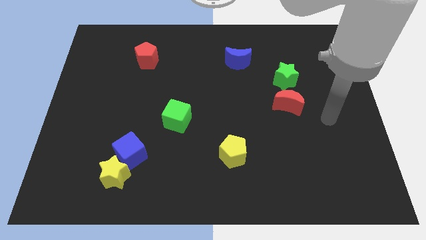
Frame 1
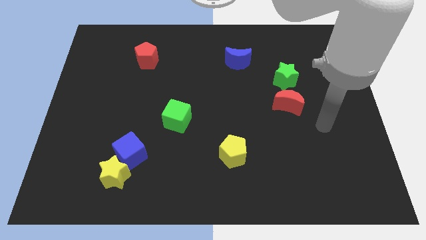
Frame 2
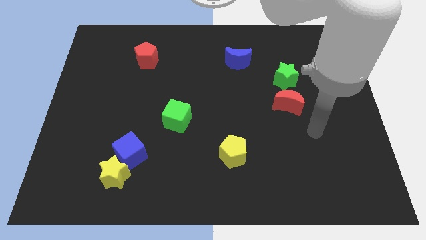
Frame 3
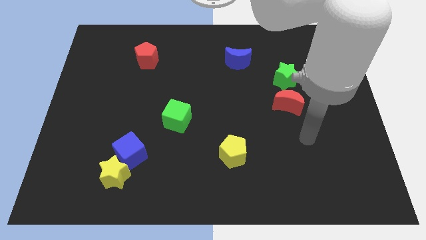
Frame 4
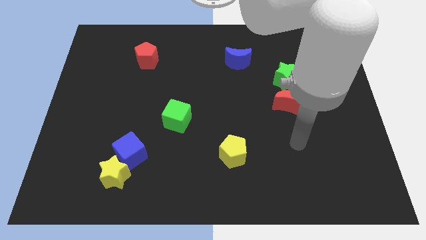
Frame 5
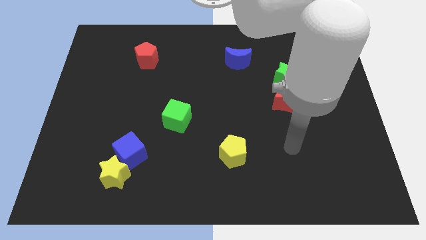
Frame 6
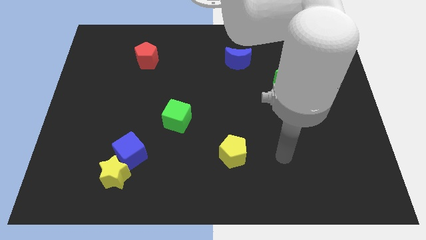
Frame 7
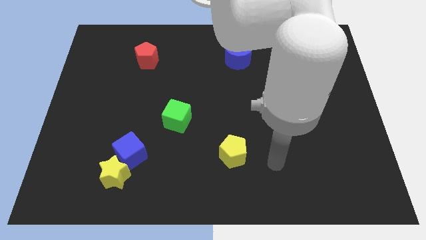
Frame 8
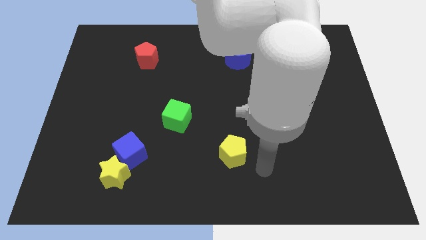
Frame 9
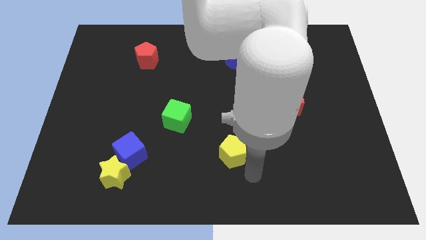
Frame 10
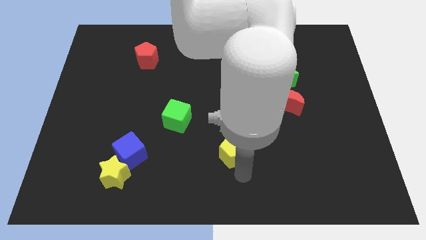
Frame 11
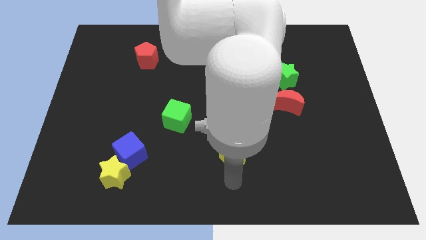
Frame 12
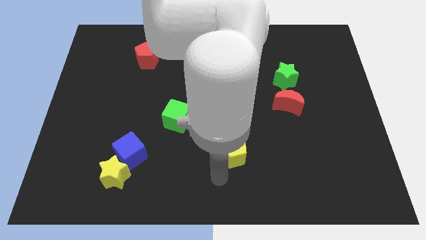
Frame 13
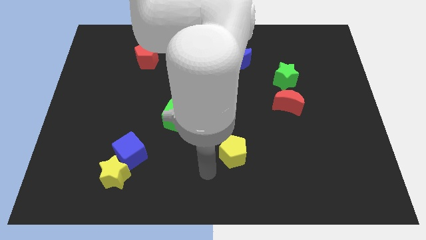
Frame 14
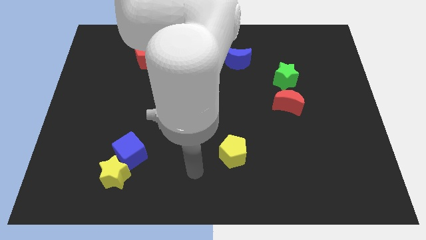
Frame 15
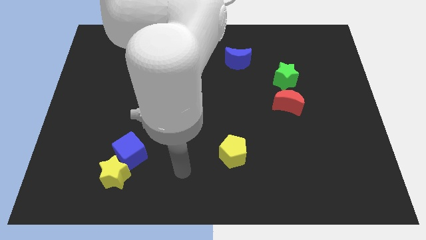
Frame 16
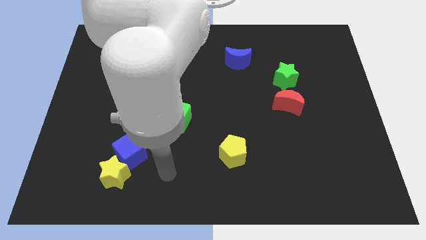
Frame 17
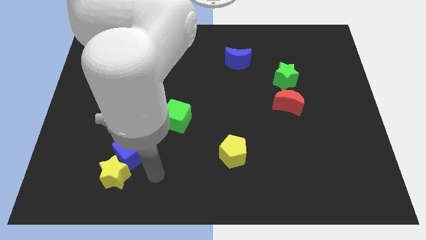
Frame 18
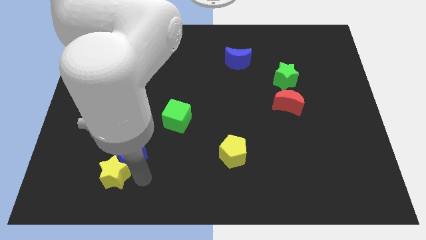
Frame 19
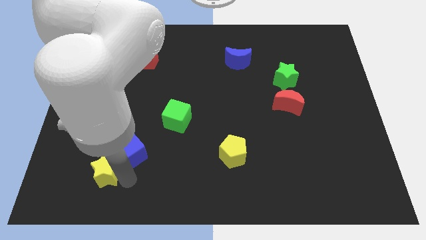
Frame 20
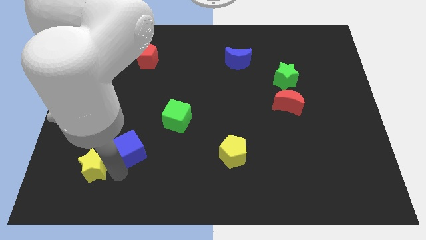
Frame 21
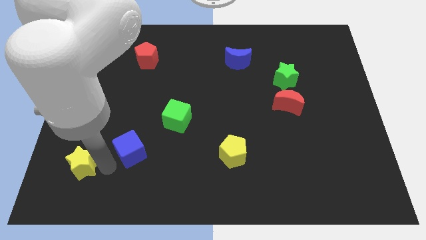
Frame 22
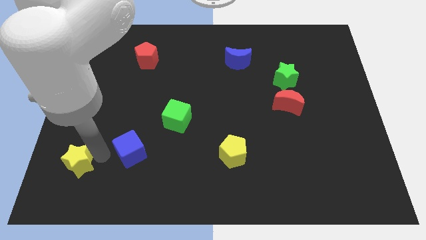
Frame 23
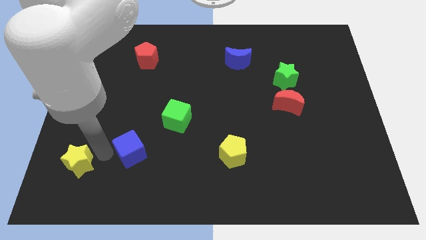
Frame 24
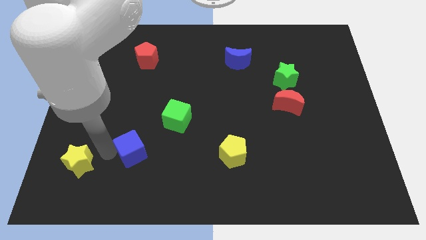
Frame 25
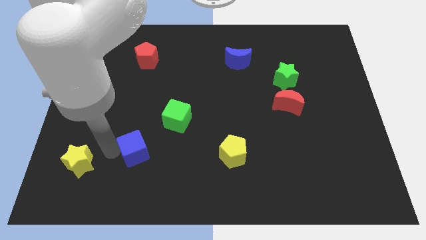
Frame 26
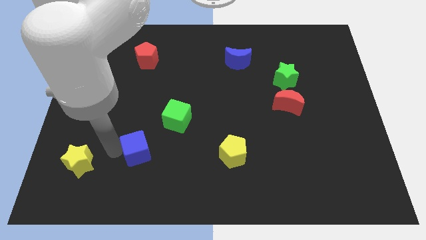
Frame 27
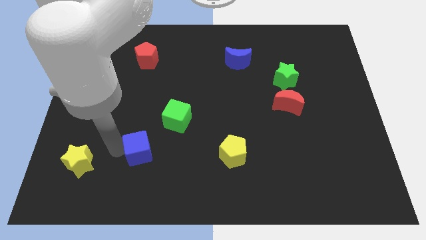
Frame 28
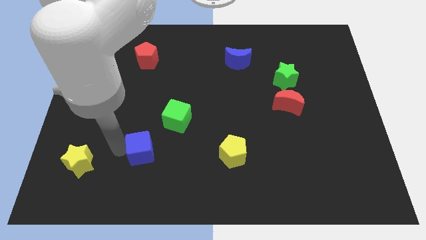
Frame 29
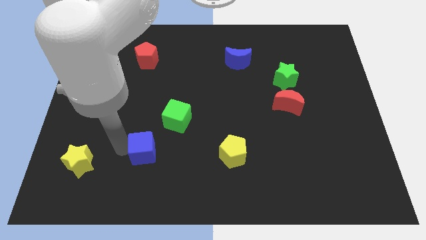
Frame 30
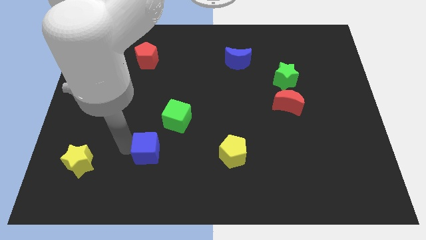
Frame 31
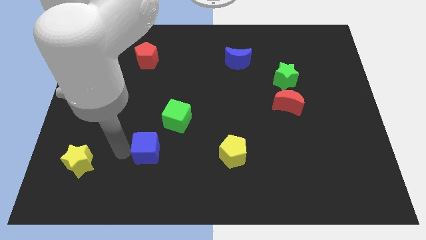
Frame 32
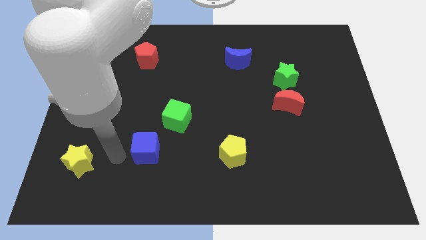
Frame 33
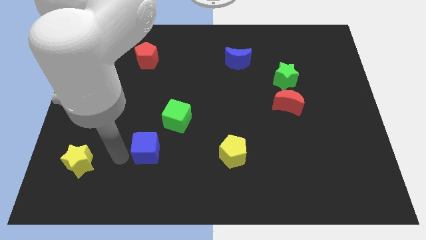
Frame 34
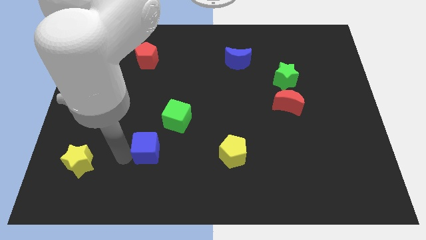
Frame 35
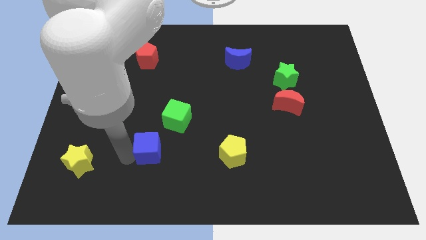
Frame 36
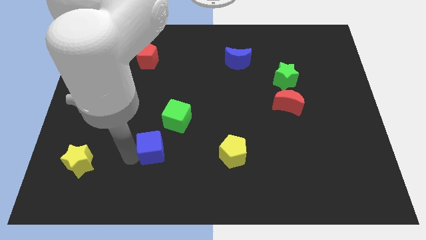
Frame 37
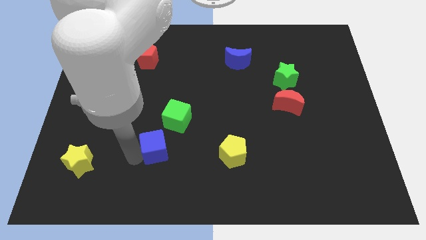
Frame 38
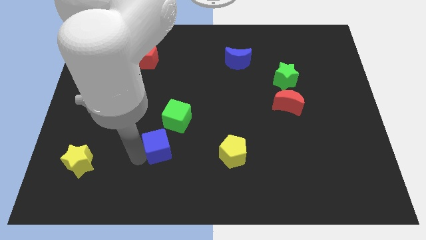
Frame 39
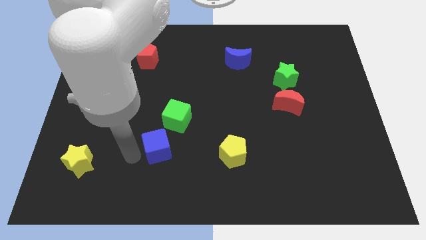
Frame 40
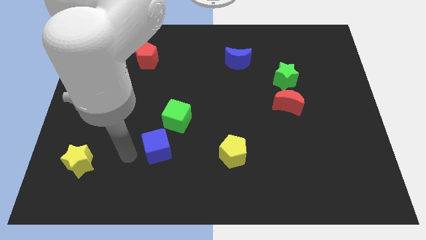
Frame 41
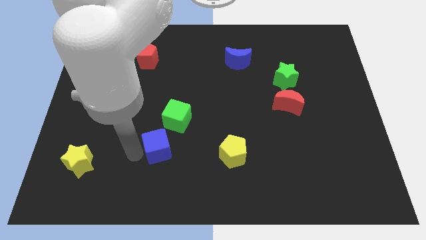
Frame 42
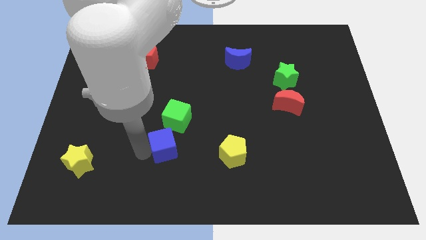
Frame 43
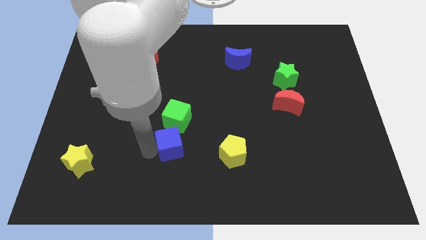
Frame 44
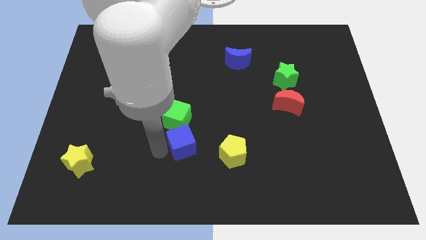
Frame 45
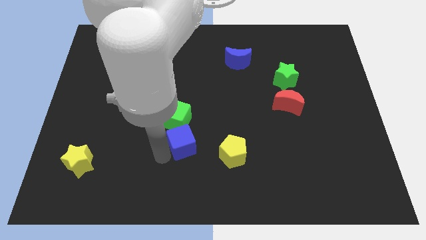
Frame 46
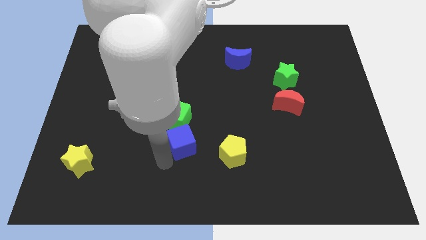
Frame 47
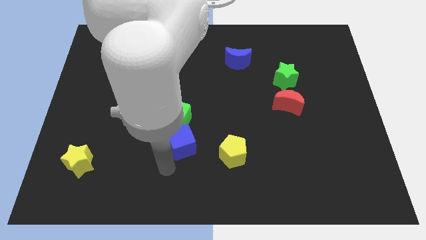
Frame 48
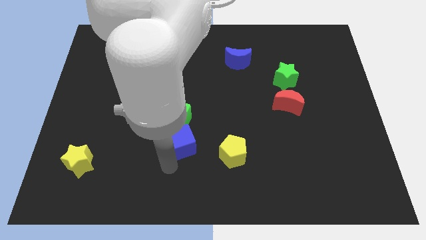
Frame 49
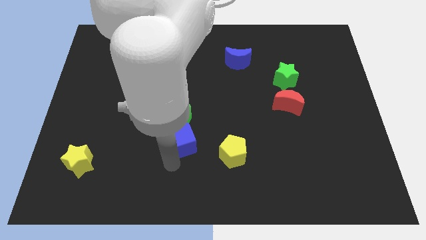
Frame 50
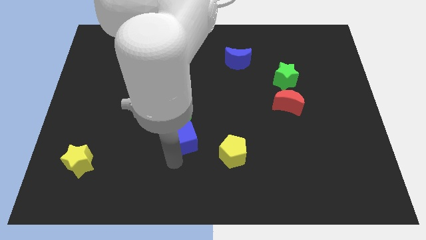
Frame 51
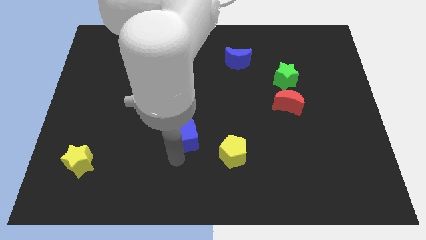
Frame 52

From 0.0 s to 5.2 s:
slide the blue cube to the center

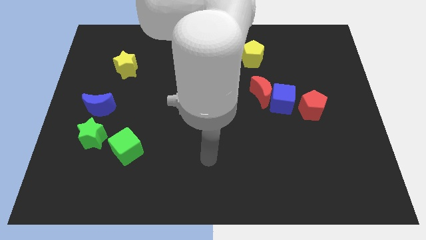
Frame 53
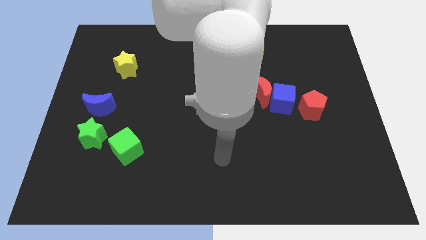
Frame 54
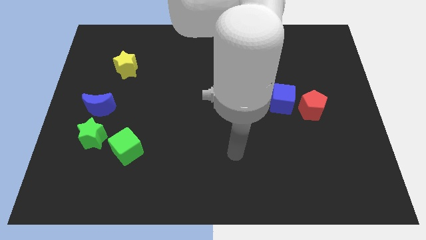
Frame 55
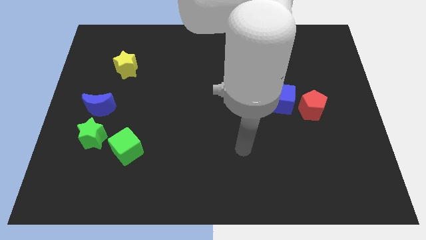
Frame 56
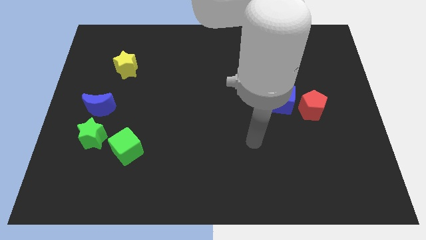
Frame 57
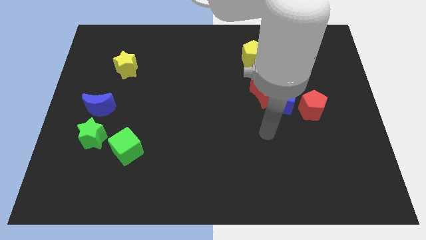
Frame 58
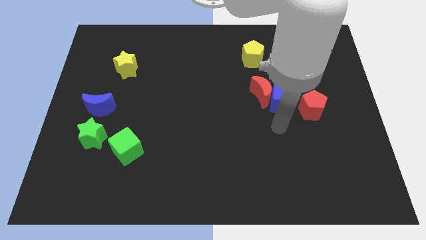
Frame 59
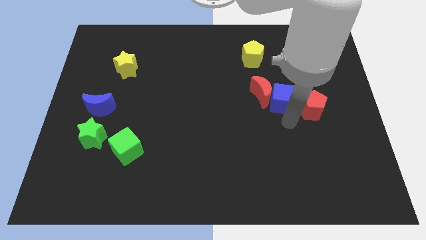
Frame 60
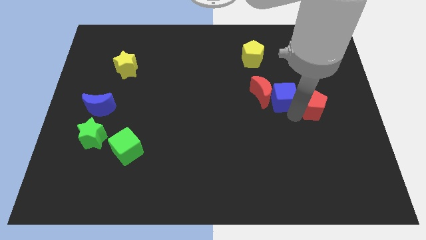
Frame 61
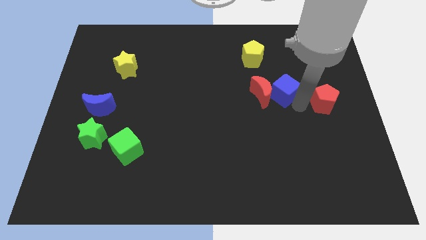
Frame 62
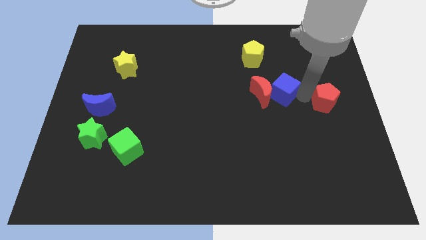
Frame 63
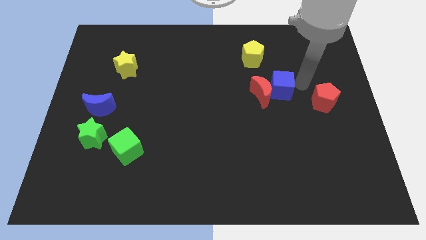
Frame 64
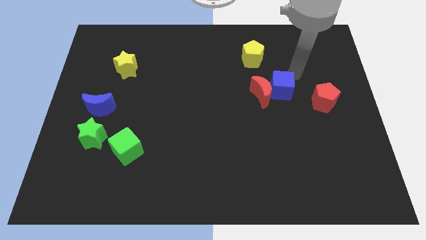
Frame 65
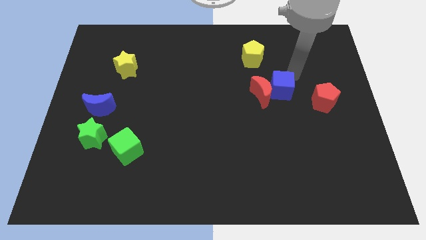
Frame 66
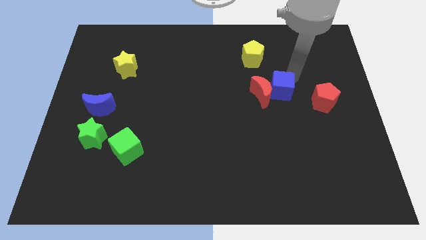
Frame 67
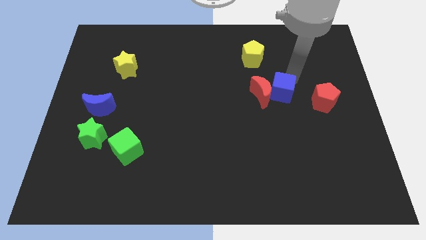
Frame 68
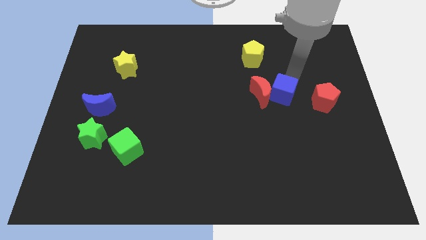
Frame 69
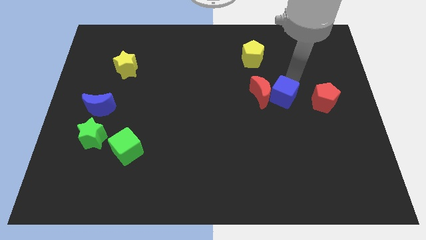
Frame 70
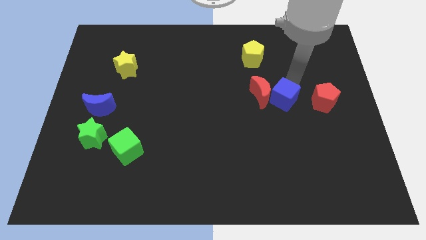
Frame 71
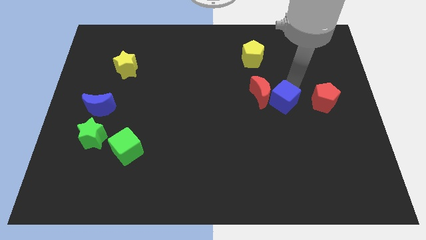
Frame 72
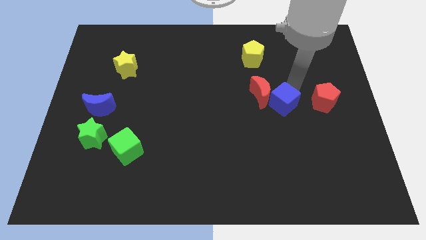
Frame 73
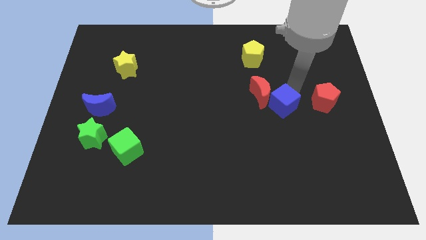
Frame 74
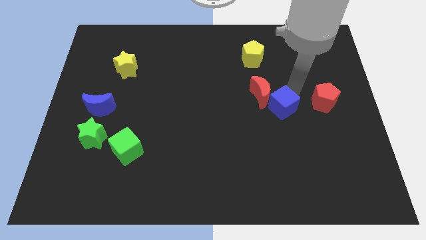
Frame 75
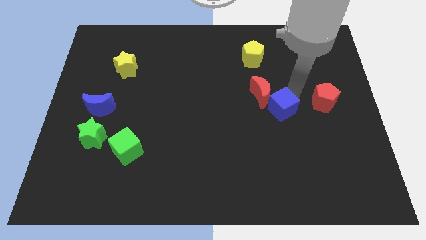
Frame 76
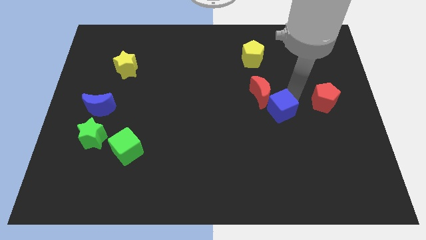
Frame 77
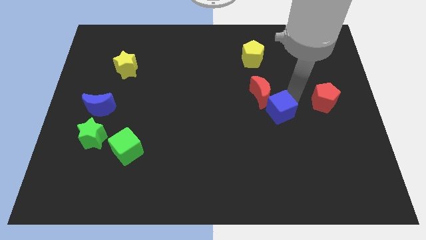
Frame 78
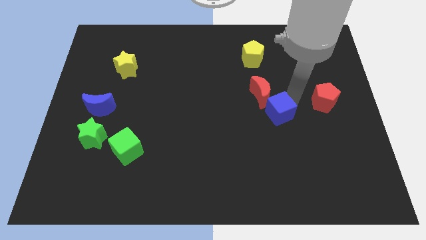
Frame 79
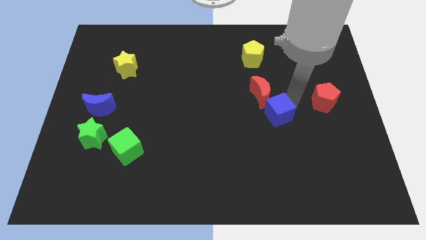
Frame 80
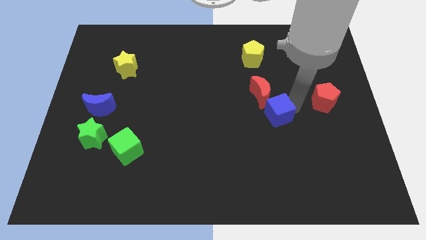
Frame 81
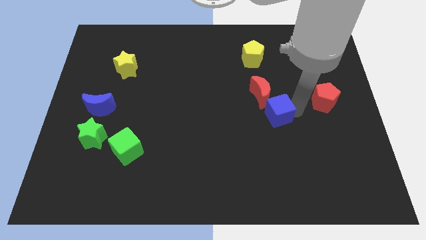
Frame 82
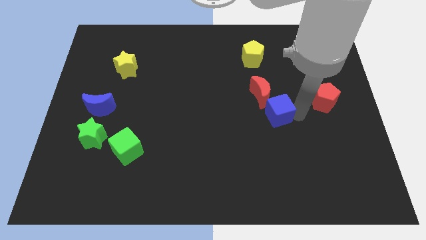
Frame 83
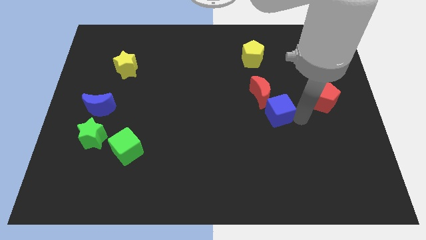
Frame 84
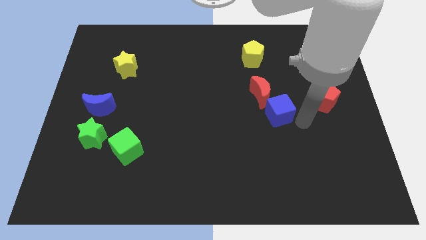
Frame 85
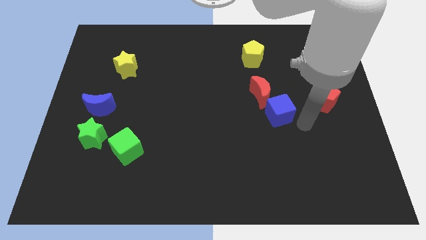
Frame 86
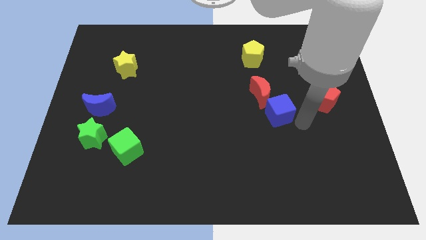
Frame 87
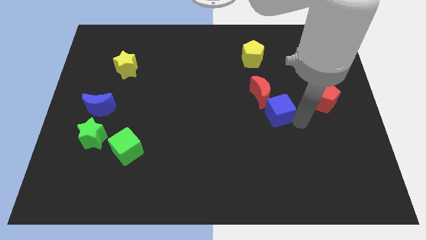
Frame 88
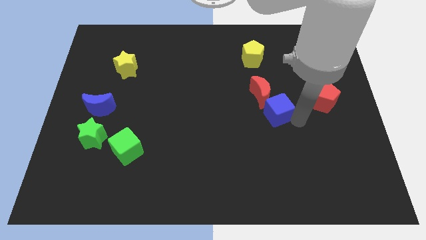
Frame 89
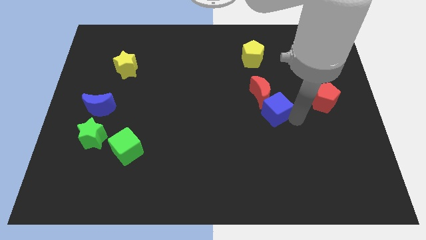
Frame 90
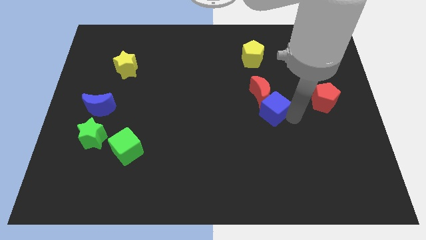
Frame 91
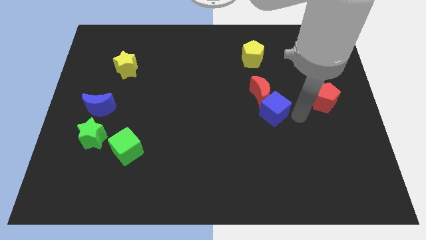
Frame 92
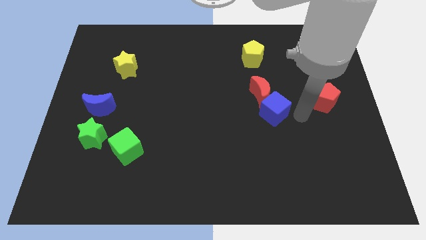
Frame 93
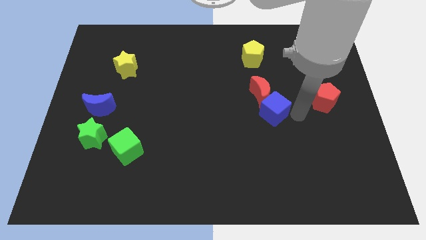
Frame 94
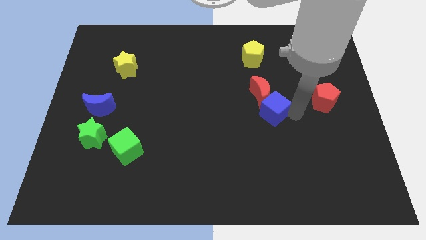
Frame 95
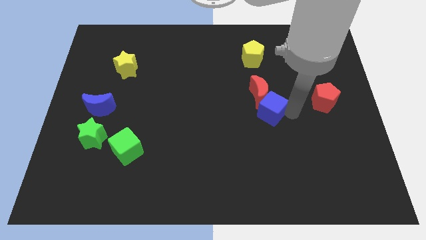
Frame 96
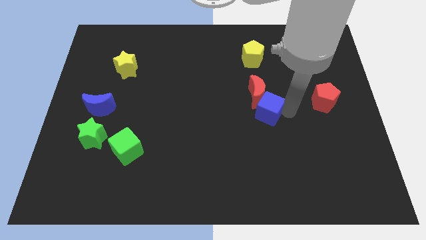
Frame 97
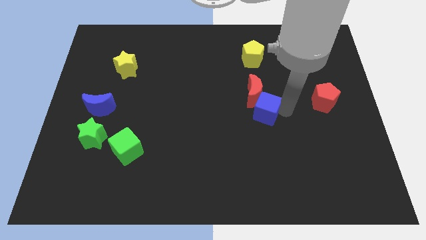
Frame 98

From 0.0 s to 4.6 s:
put the blue cube to the center
